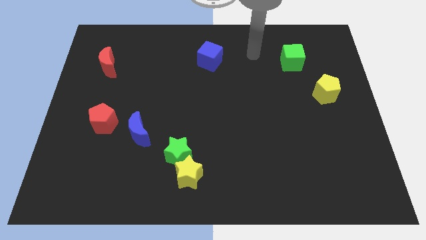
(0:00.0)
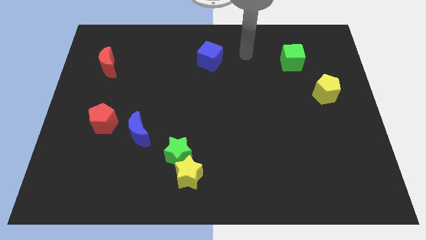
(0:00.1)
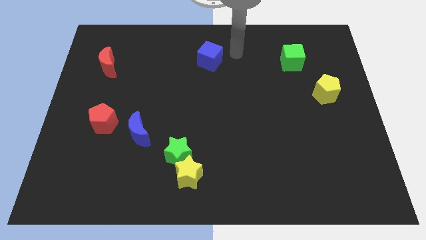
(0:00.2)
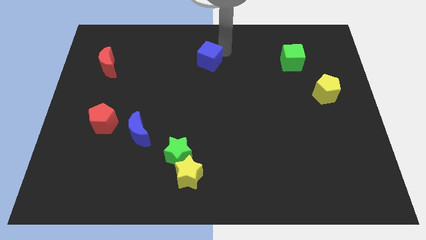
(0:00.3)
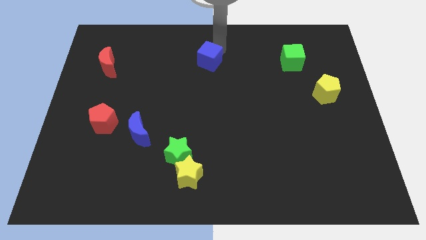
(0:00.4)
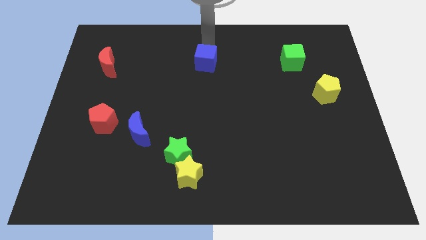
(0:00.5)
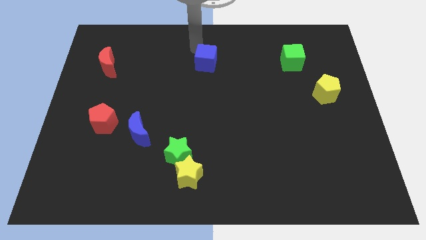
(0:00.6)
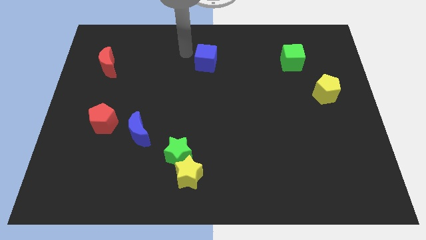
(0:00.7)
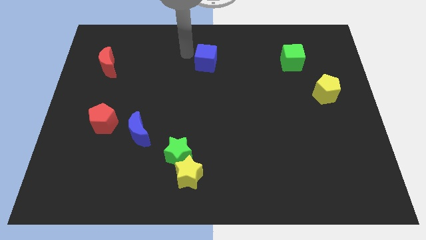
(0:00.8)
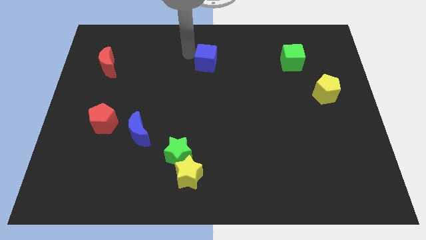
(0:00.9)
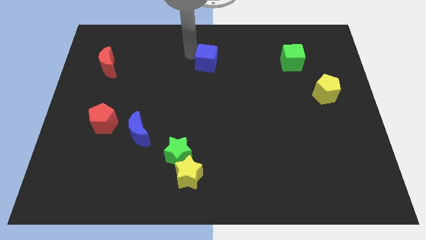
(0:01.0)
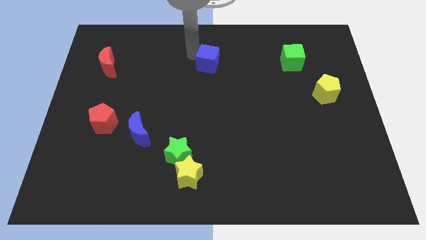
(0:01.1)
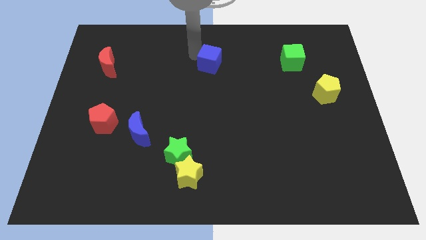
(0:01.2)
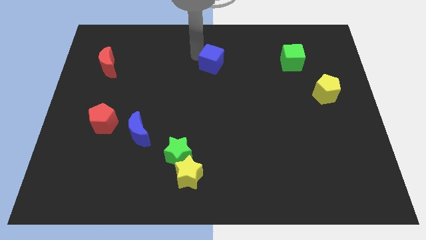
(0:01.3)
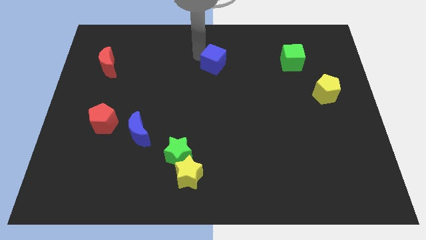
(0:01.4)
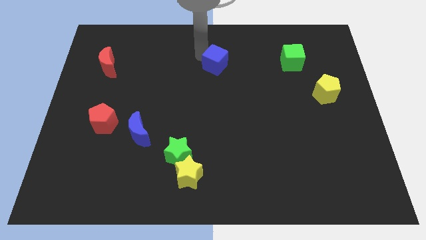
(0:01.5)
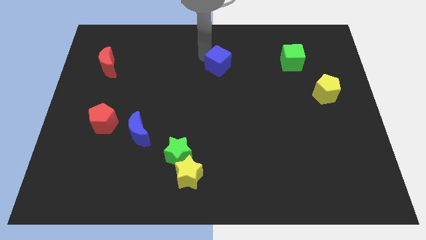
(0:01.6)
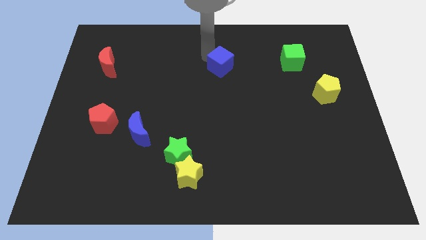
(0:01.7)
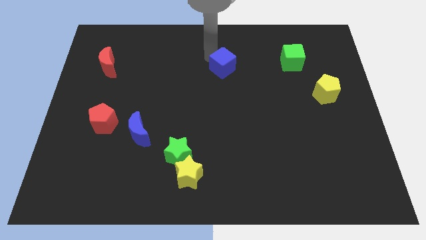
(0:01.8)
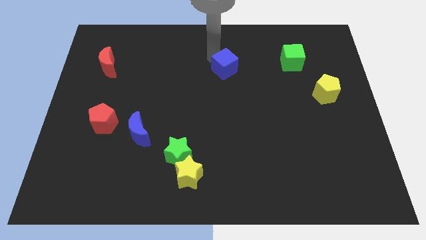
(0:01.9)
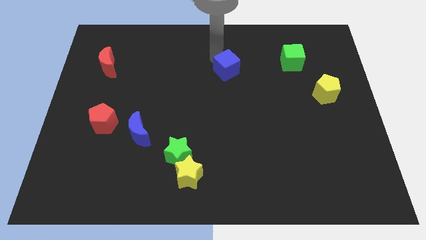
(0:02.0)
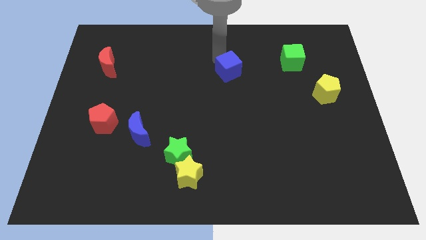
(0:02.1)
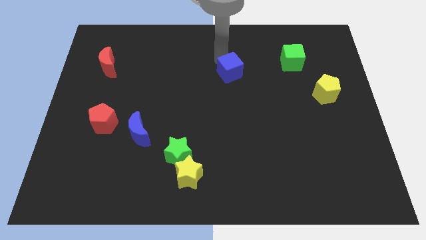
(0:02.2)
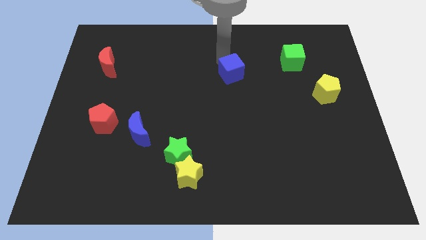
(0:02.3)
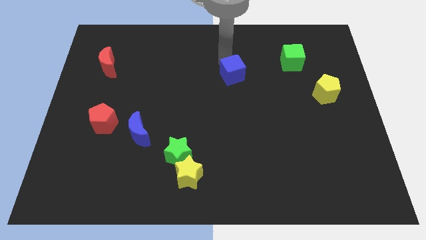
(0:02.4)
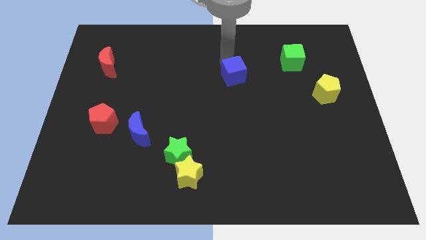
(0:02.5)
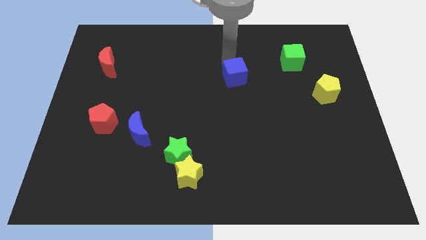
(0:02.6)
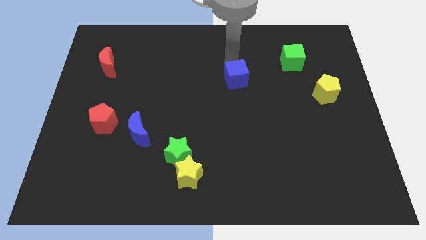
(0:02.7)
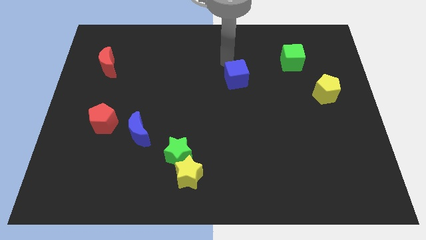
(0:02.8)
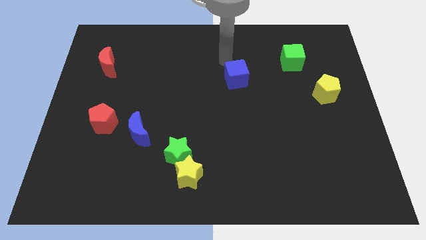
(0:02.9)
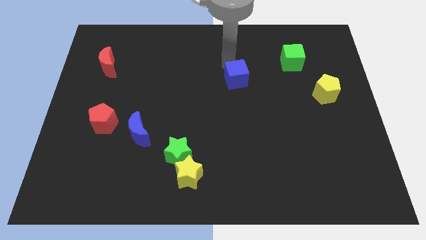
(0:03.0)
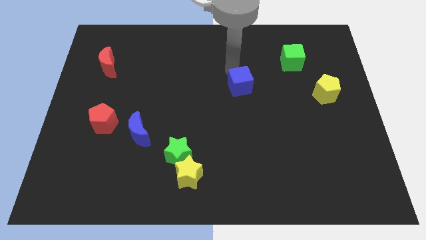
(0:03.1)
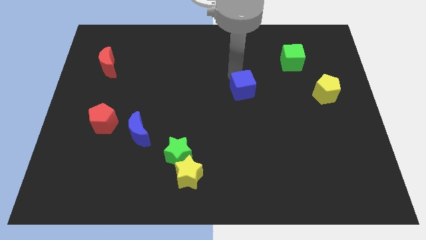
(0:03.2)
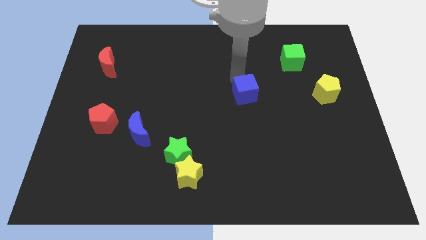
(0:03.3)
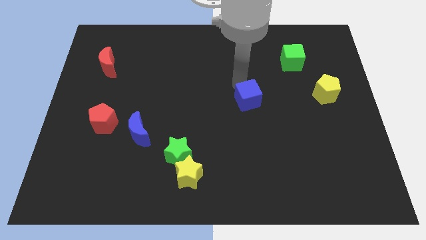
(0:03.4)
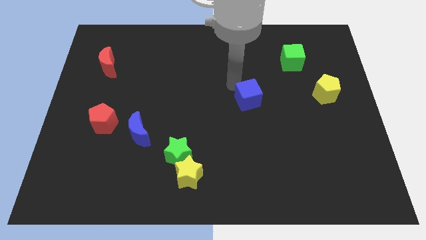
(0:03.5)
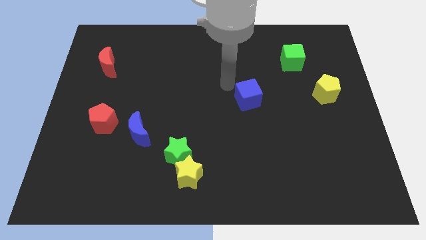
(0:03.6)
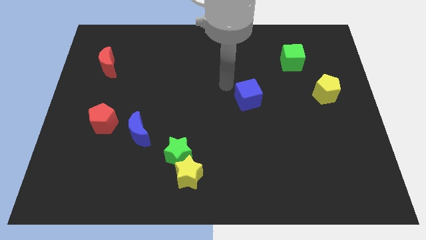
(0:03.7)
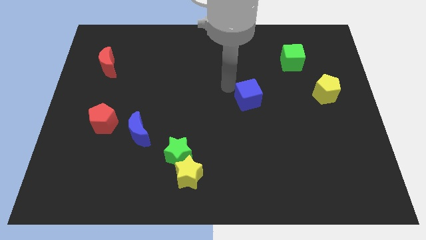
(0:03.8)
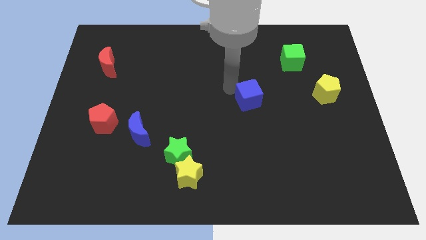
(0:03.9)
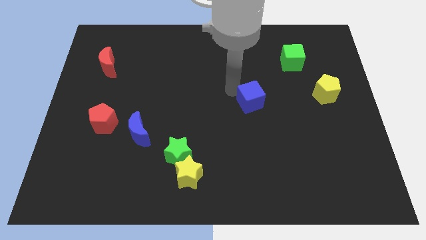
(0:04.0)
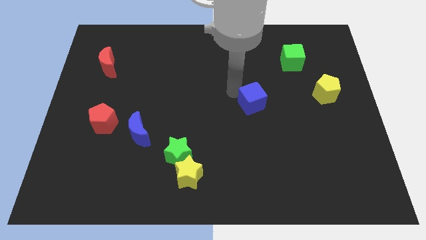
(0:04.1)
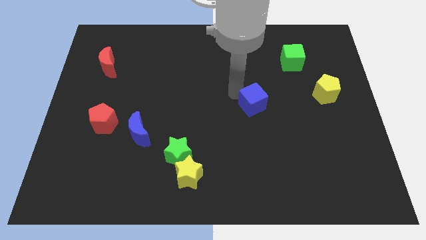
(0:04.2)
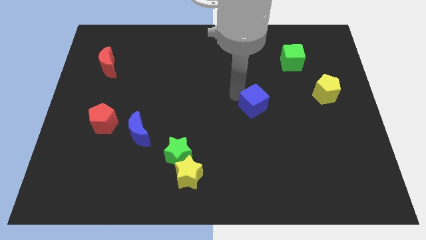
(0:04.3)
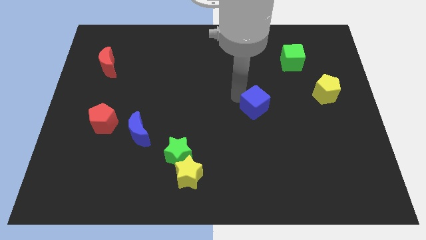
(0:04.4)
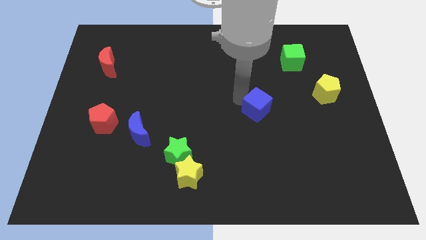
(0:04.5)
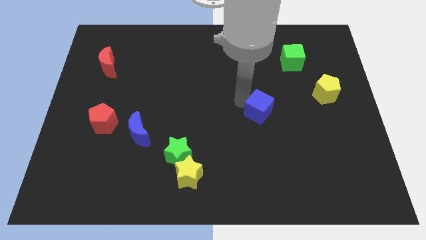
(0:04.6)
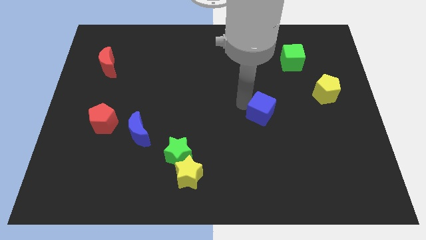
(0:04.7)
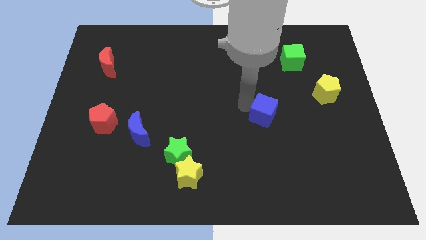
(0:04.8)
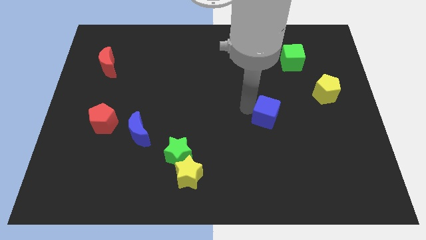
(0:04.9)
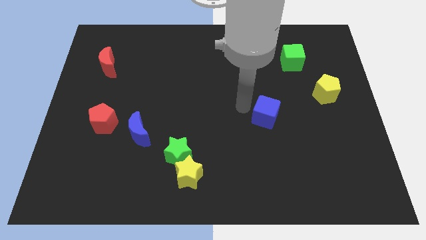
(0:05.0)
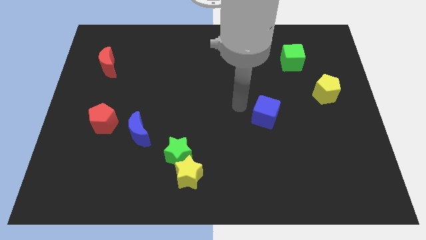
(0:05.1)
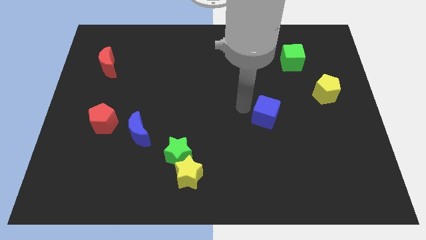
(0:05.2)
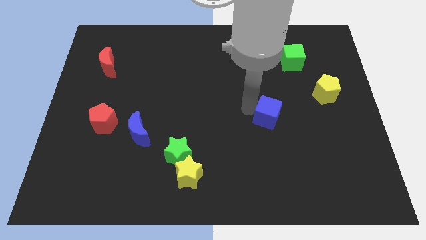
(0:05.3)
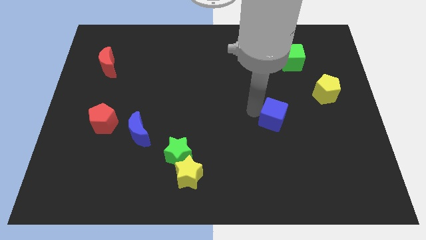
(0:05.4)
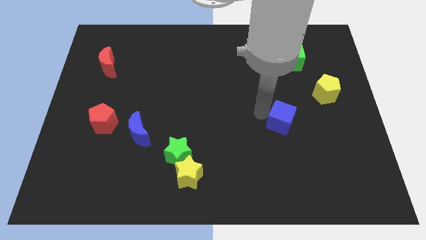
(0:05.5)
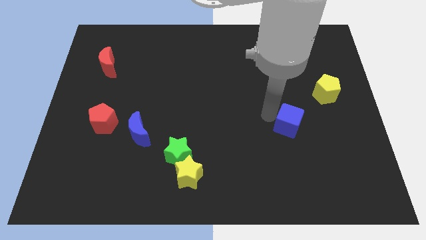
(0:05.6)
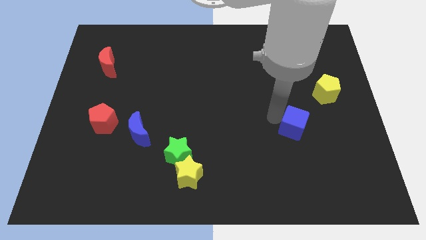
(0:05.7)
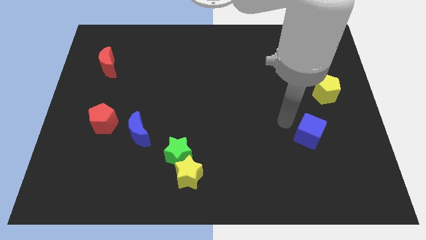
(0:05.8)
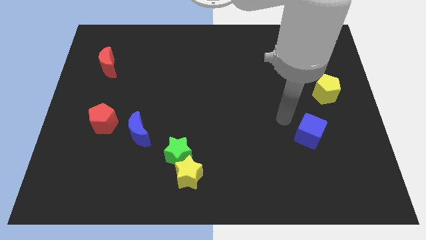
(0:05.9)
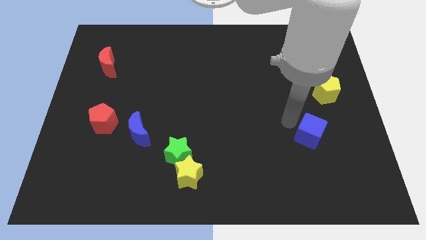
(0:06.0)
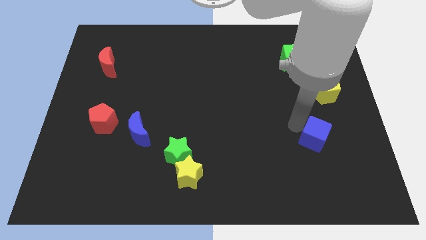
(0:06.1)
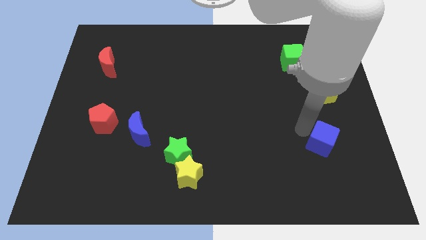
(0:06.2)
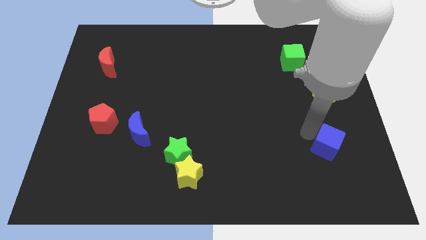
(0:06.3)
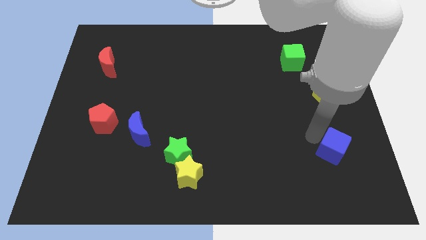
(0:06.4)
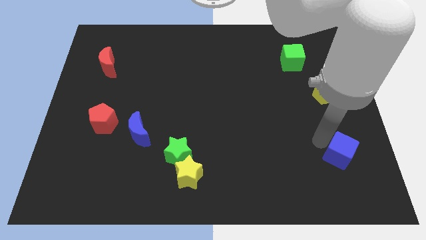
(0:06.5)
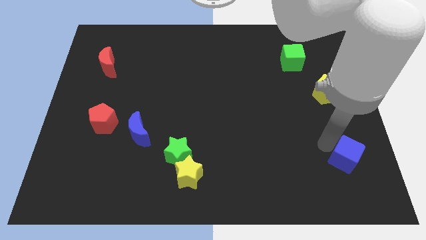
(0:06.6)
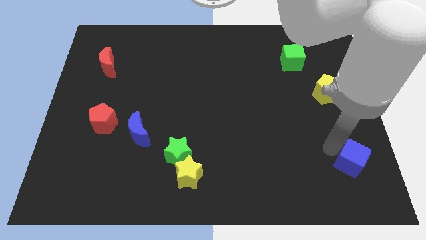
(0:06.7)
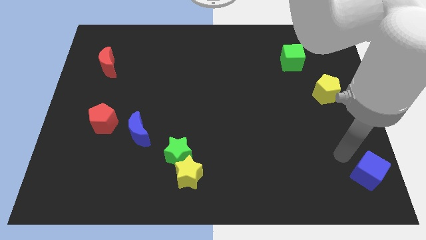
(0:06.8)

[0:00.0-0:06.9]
push the blue cube to the lower right corner
